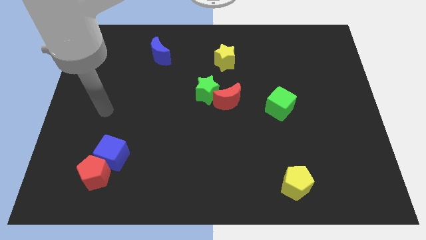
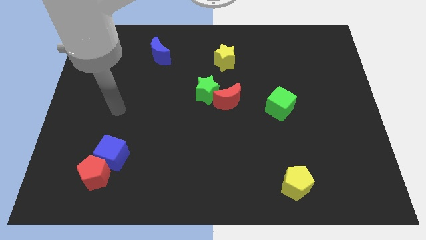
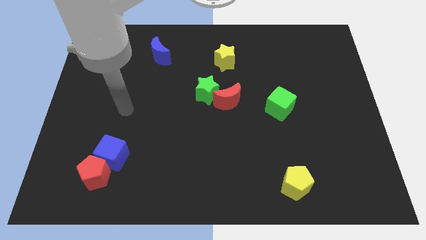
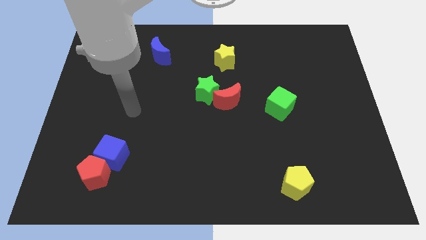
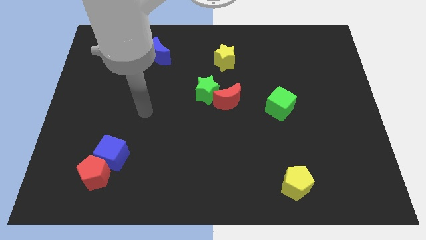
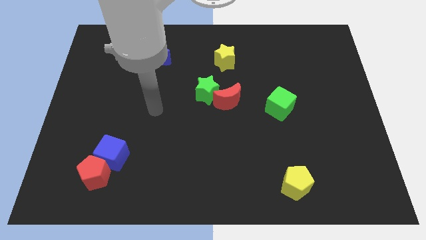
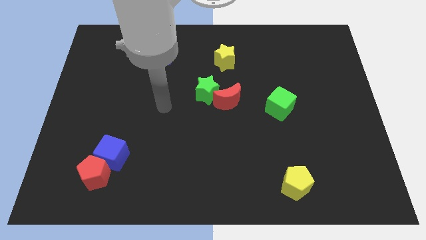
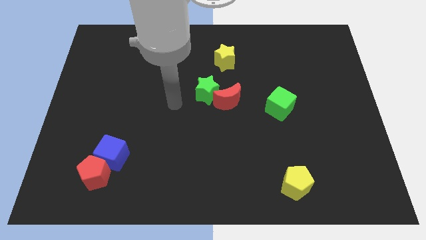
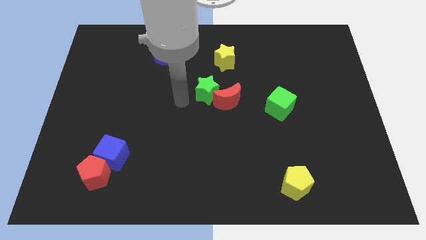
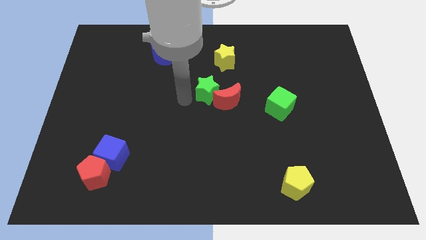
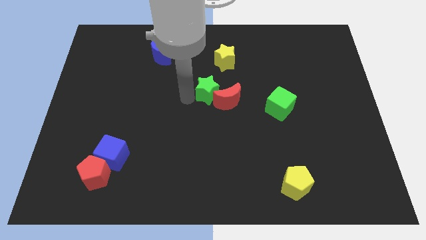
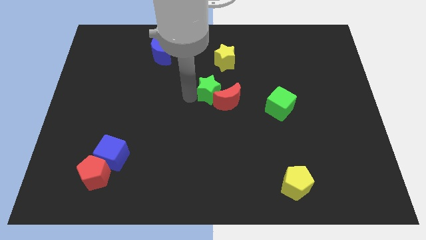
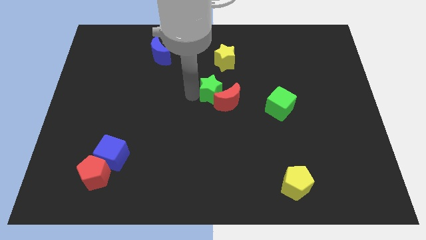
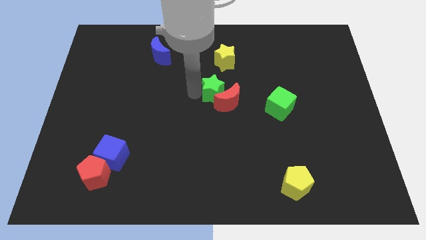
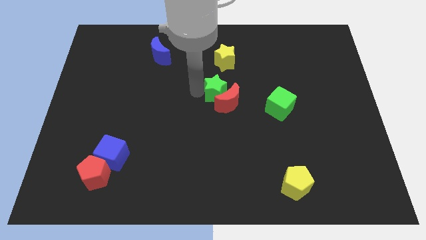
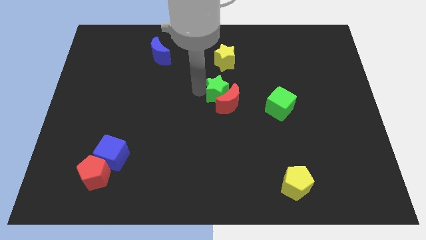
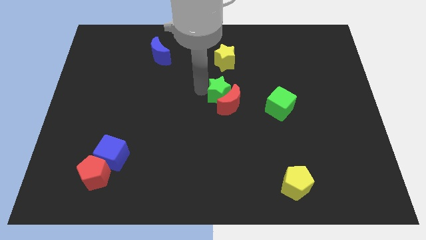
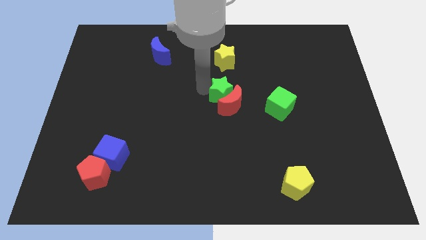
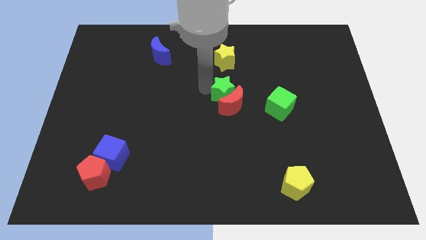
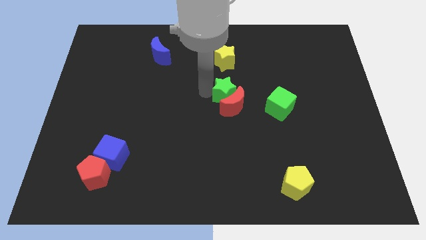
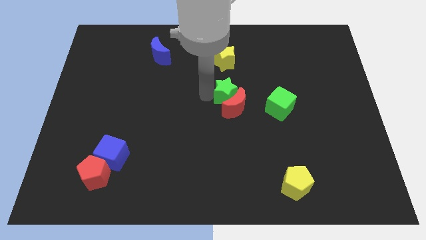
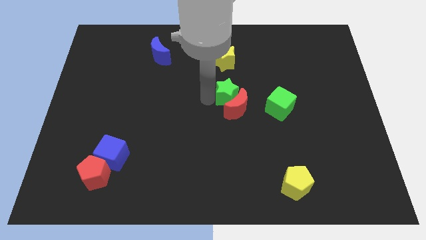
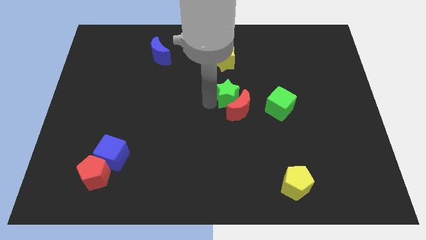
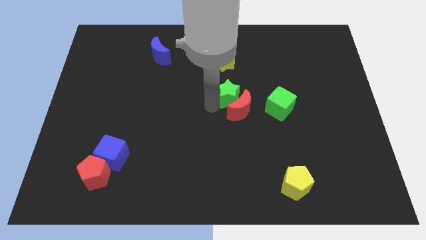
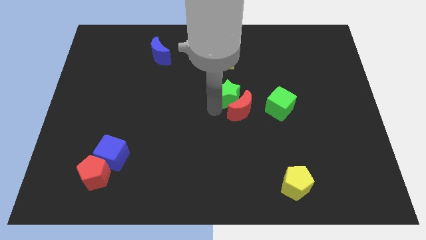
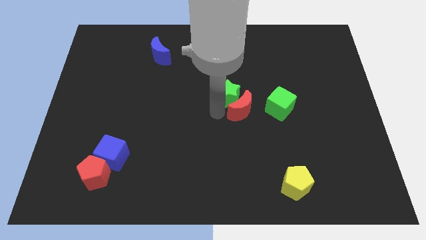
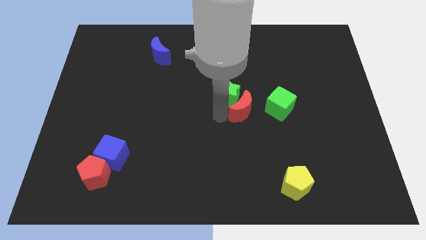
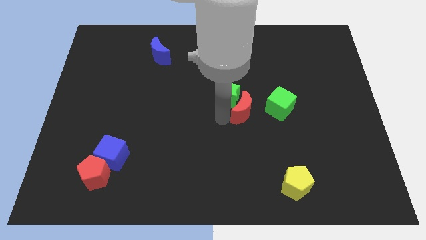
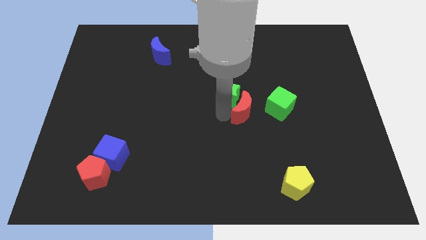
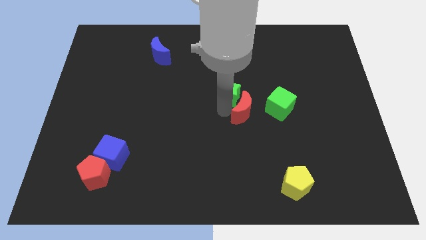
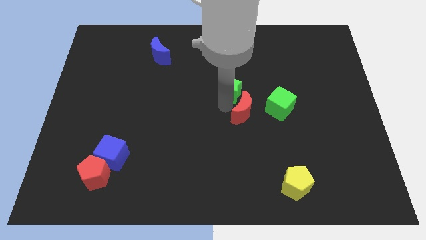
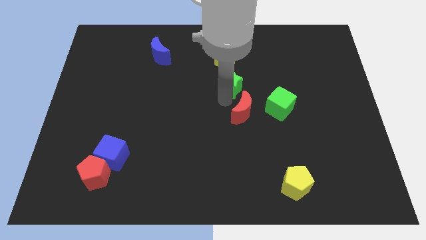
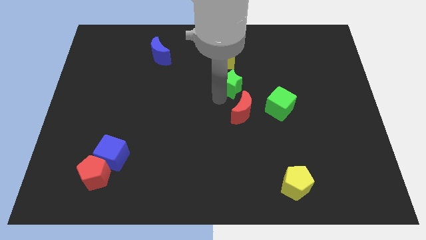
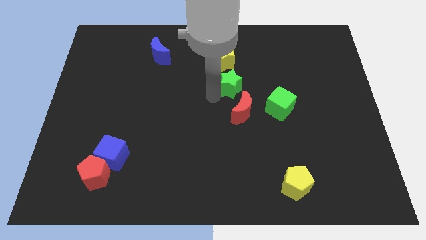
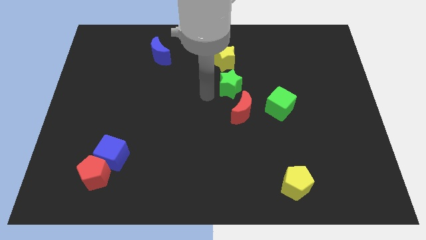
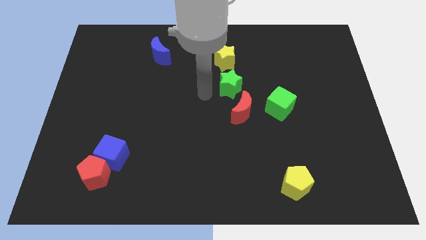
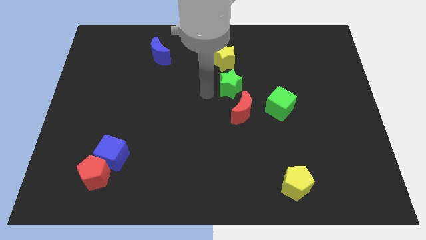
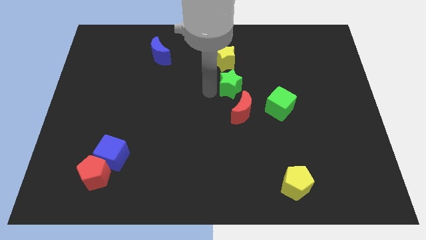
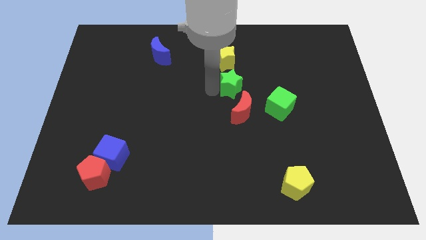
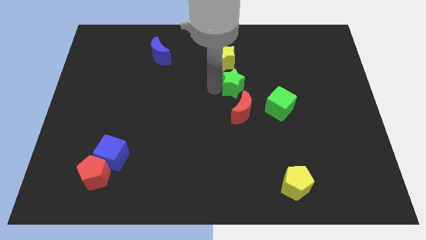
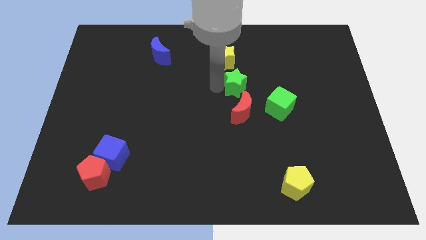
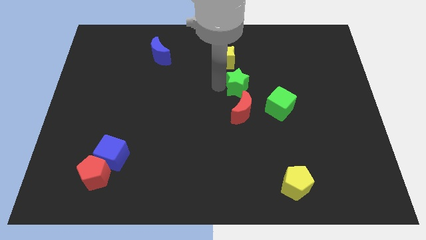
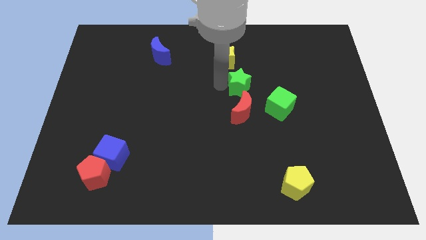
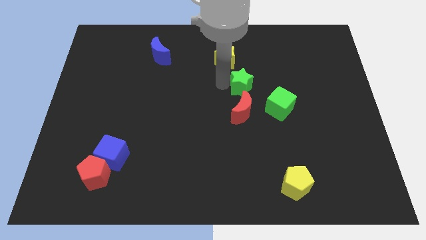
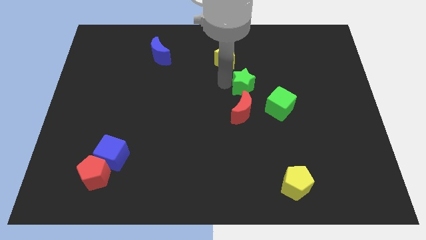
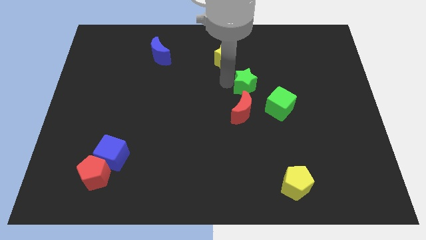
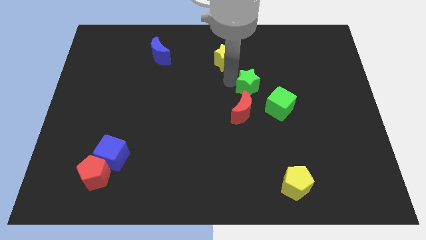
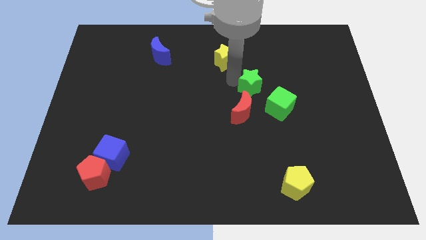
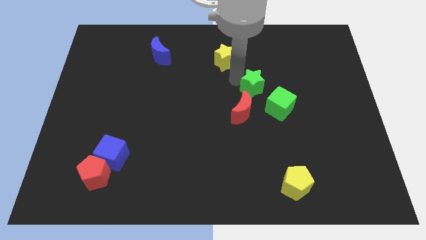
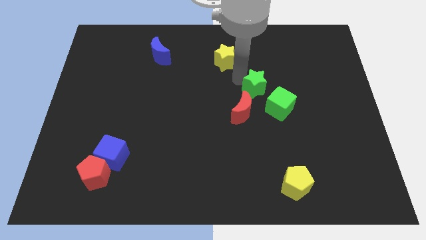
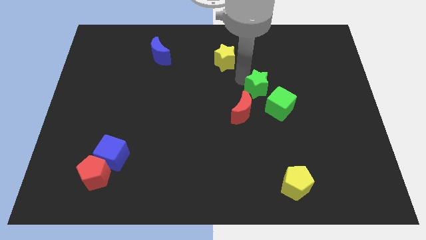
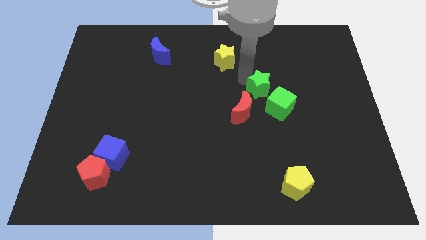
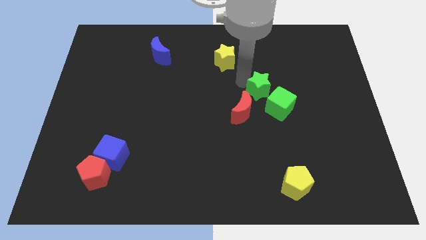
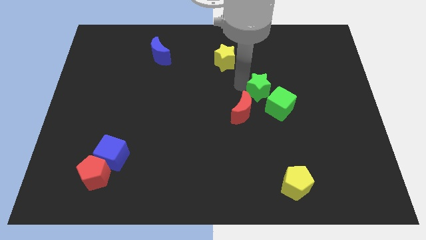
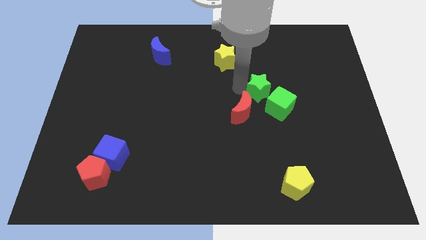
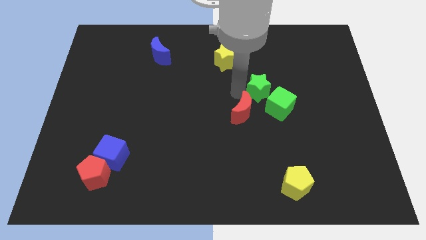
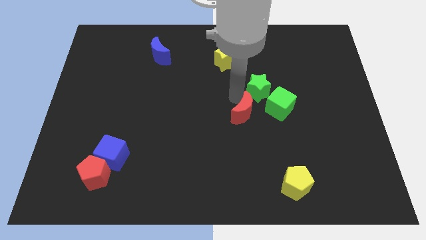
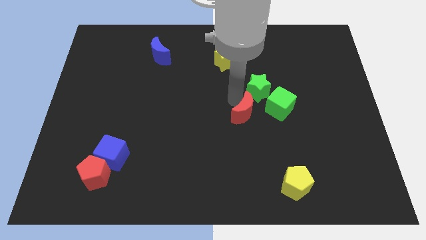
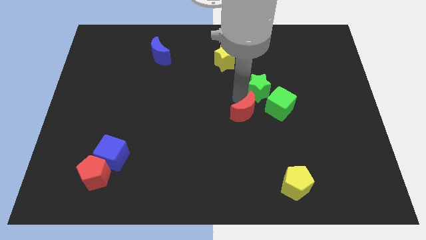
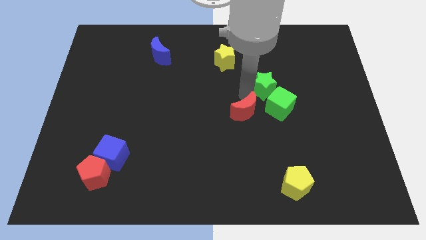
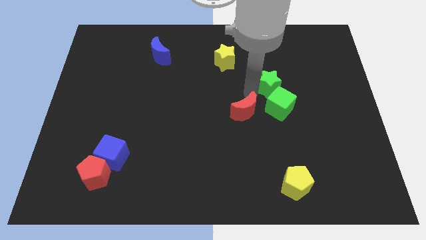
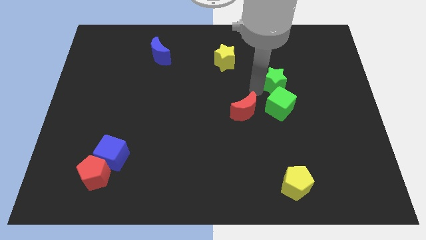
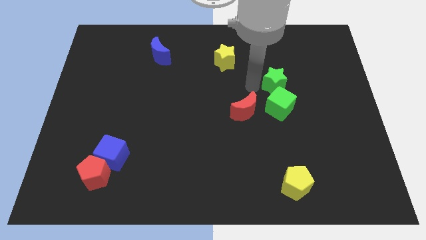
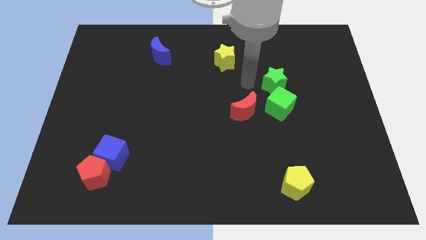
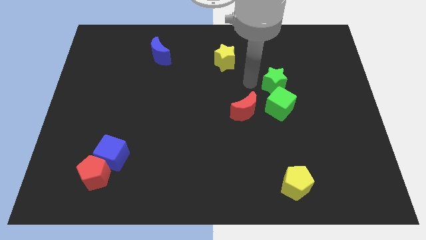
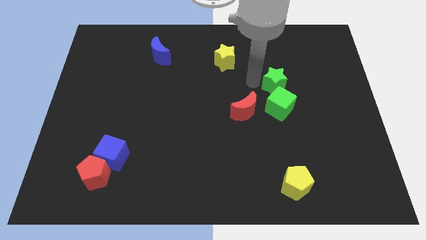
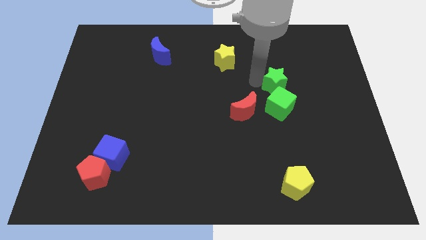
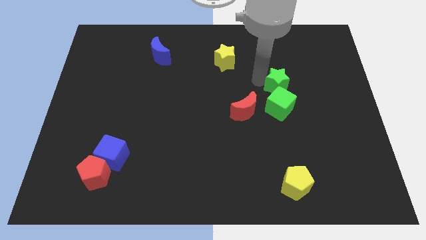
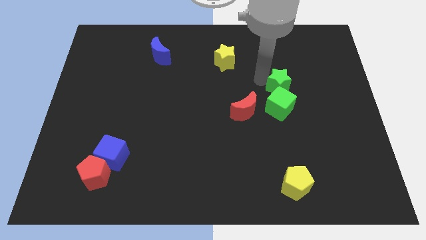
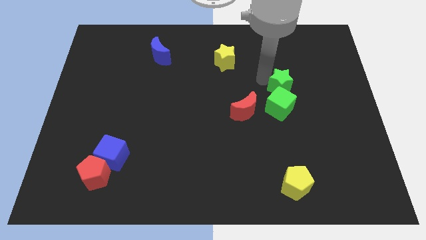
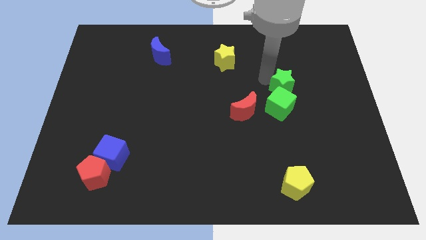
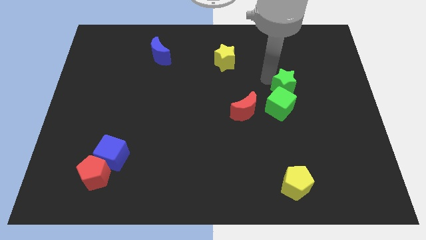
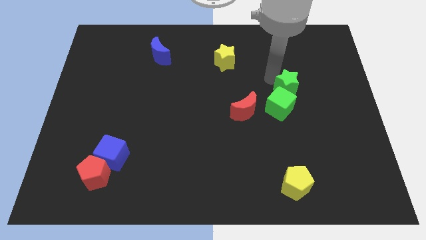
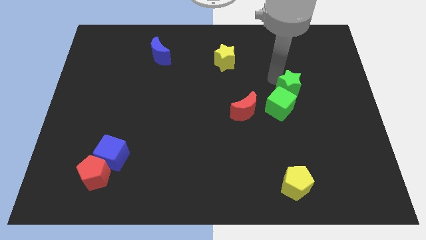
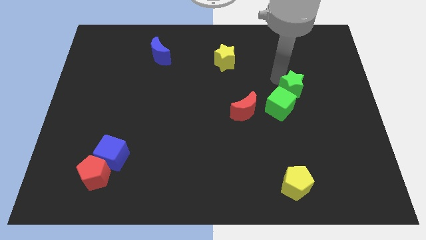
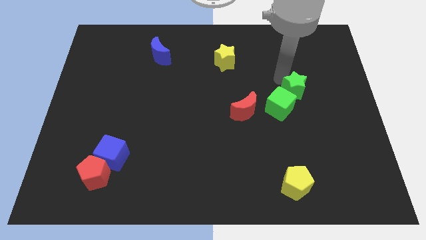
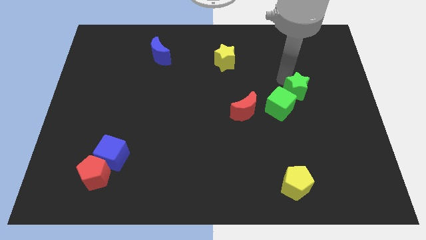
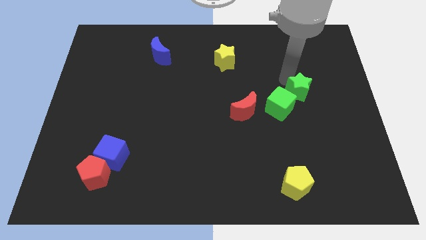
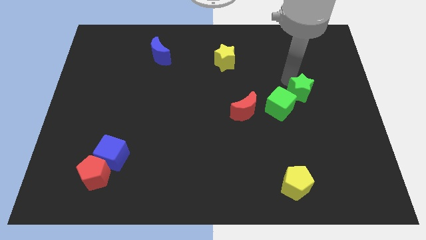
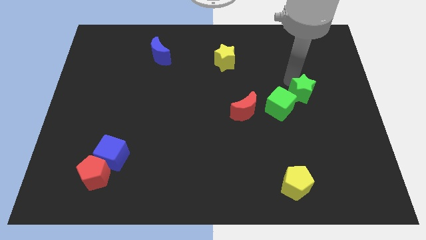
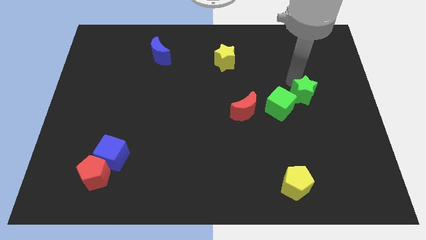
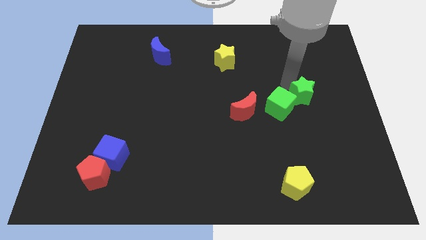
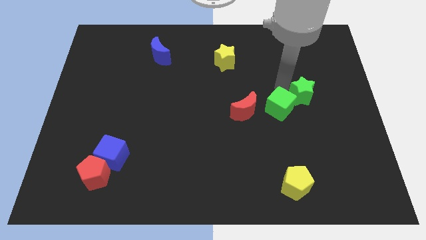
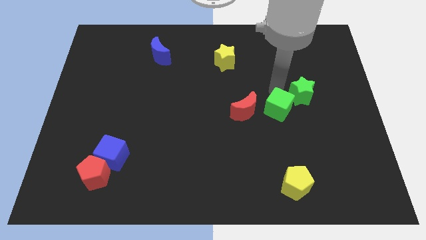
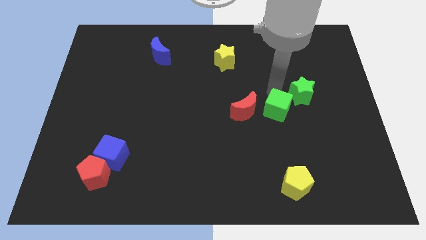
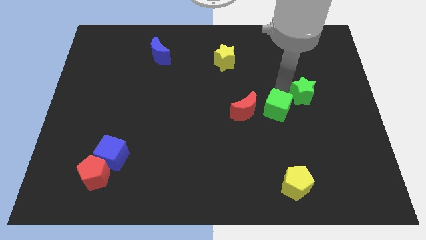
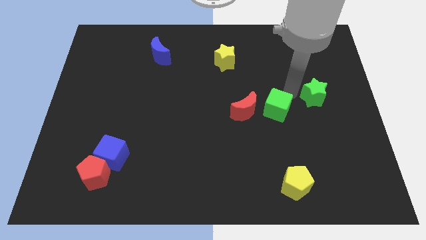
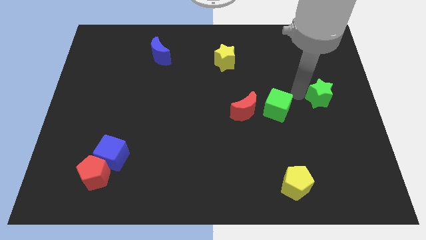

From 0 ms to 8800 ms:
move the green star to the right side
